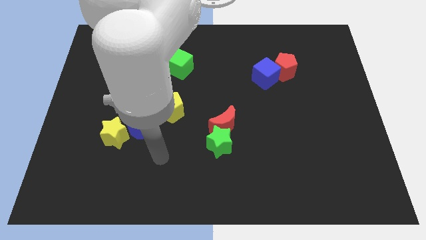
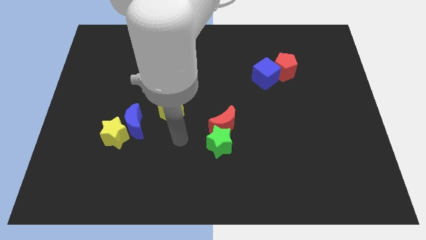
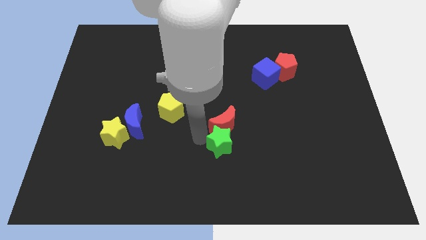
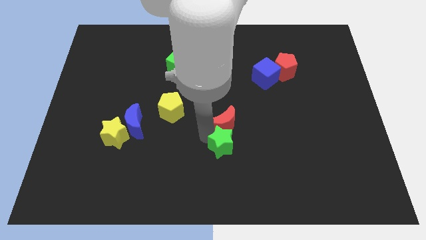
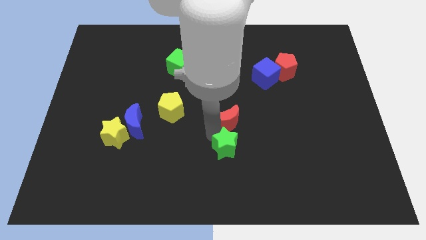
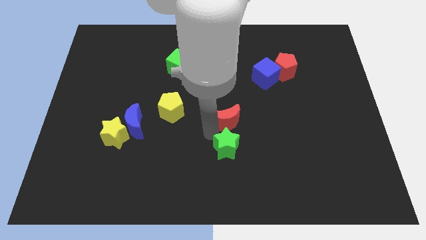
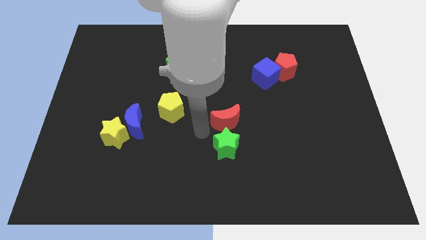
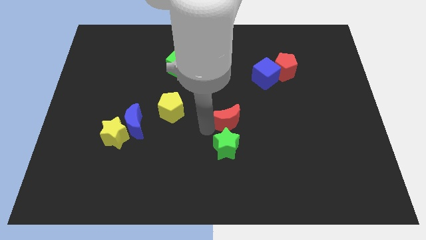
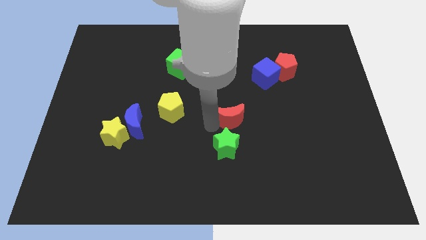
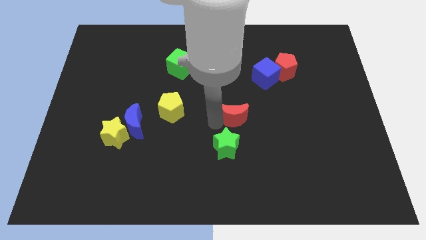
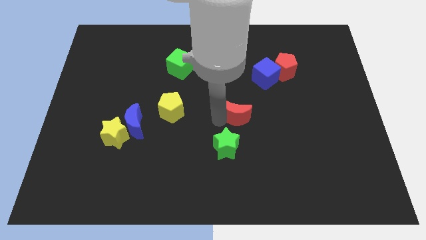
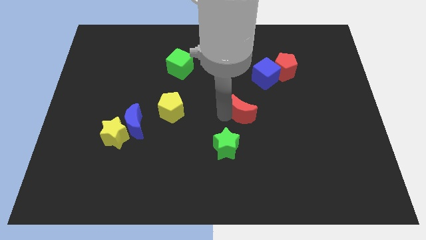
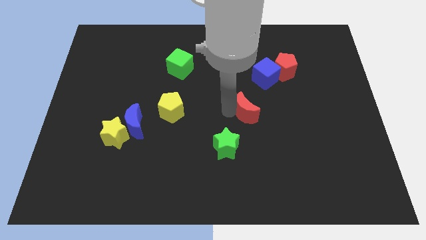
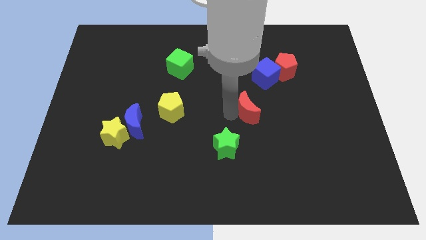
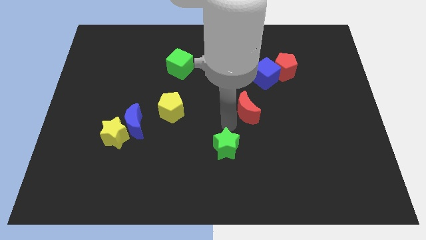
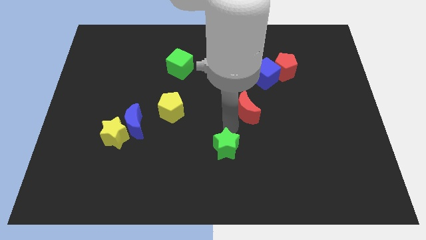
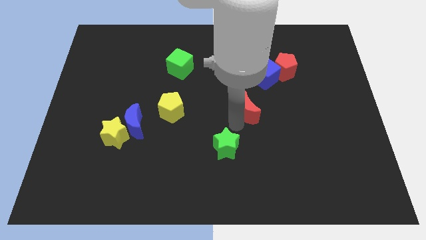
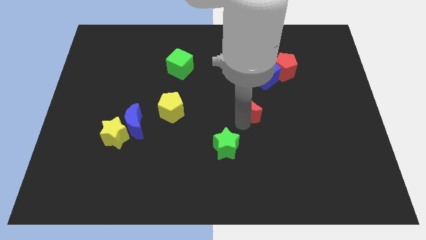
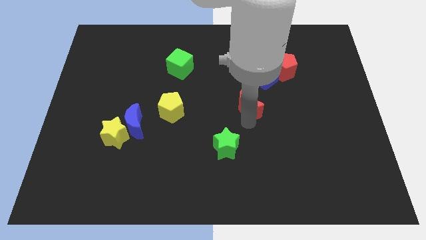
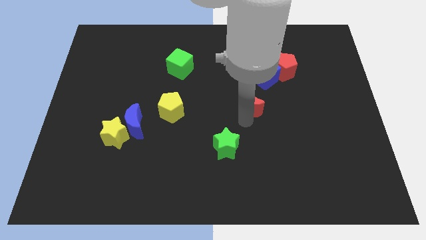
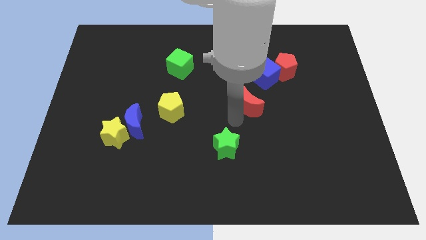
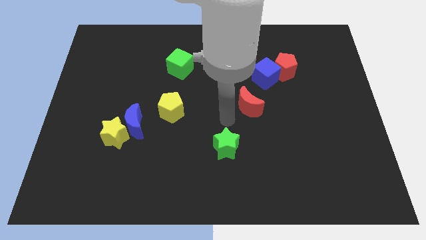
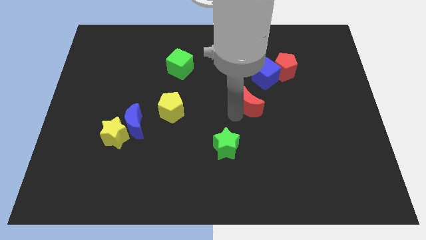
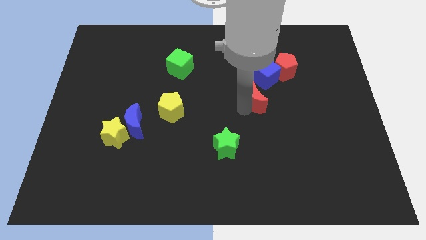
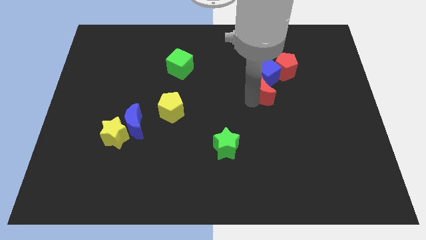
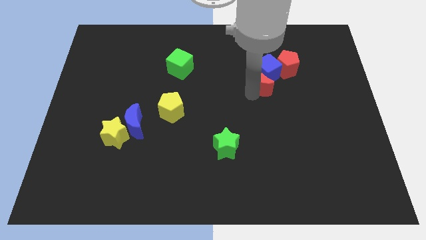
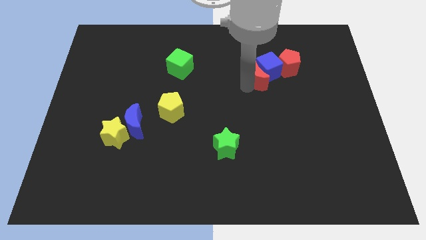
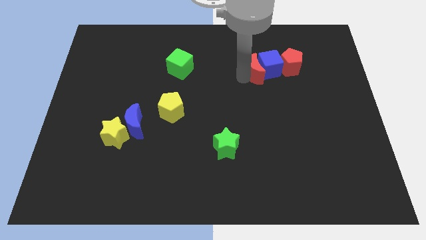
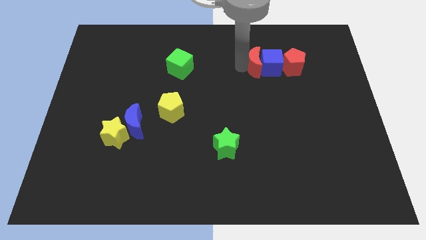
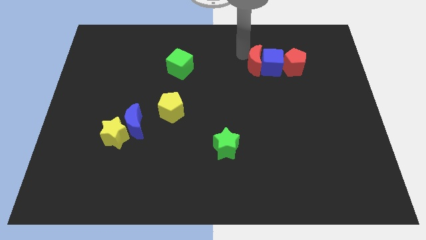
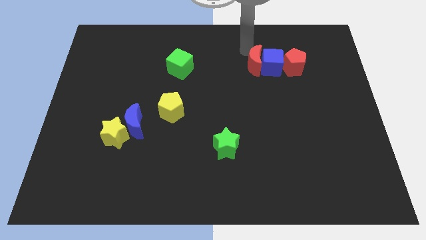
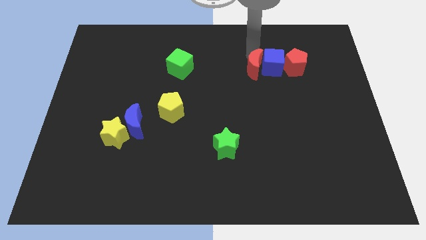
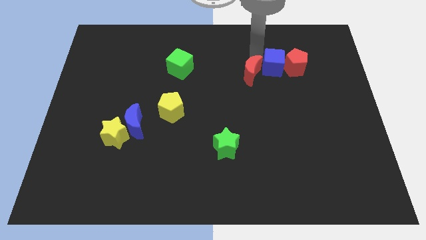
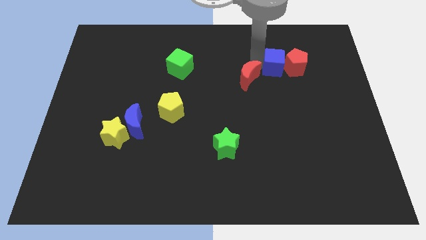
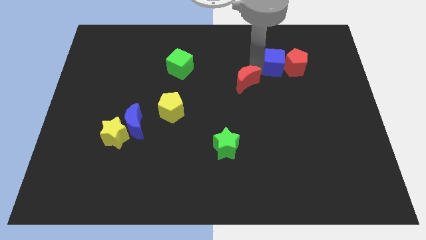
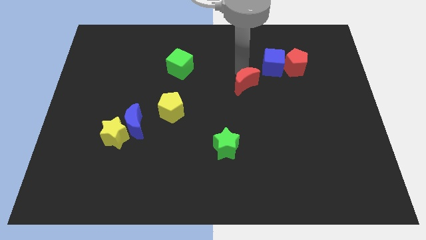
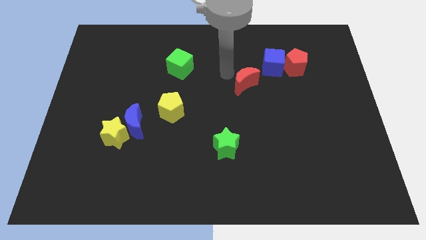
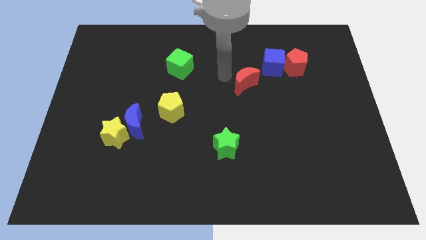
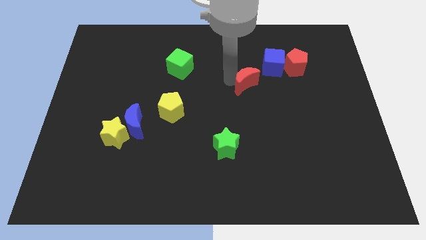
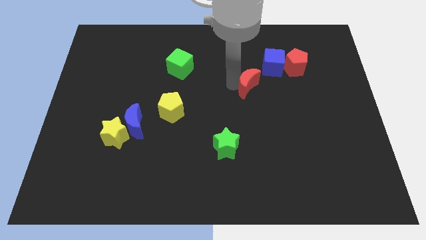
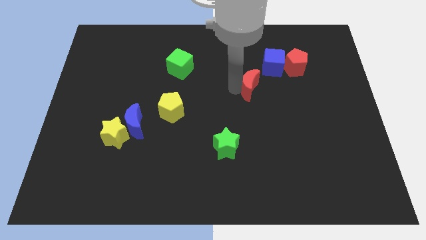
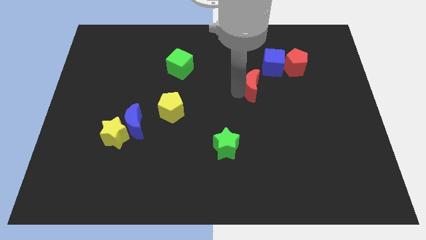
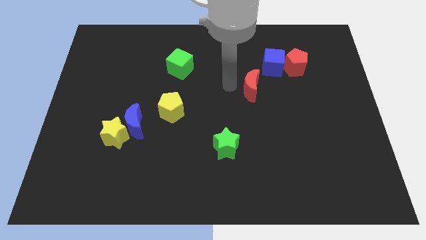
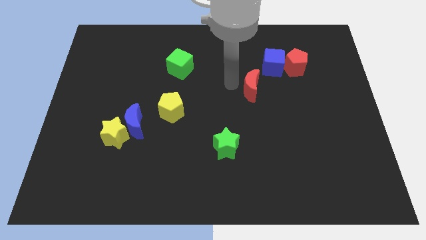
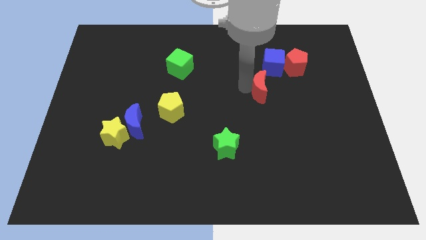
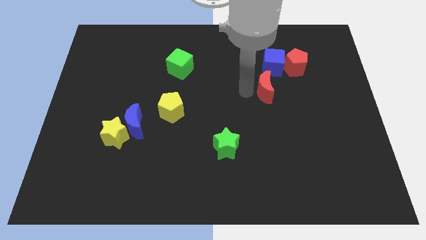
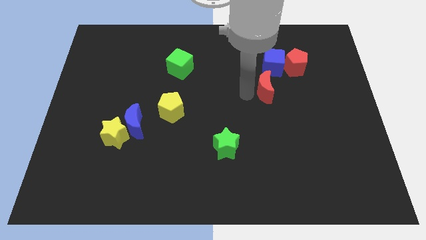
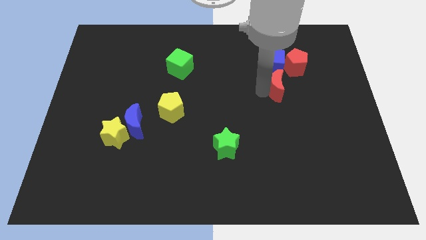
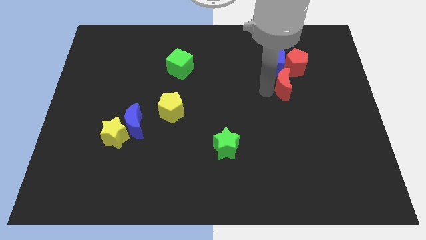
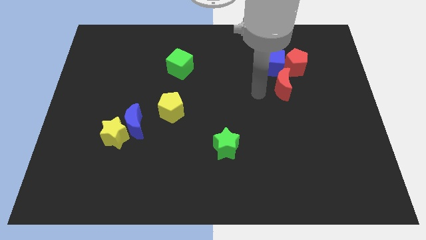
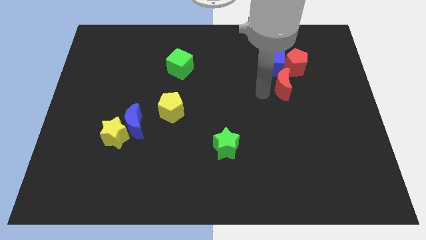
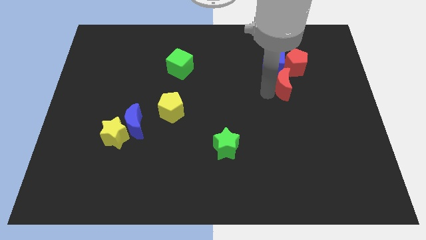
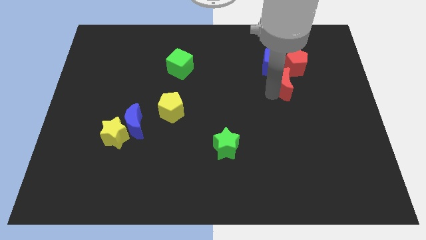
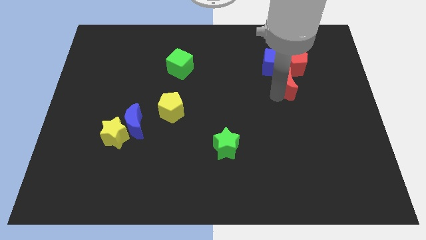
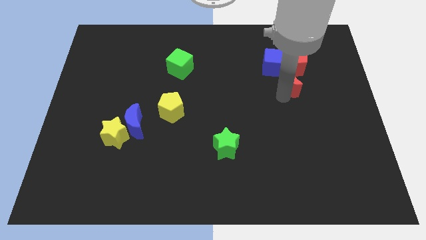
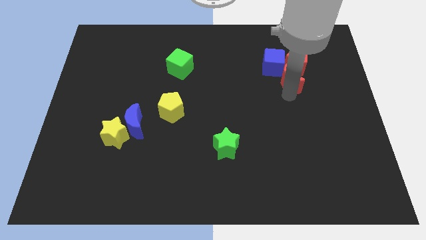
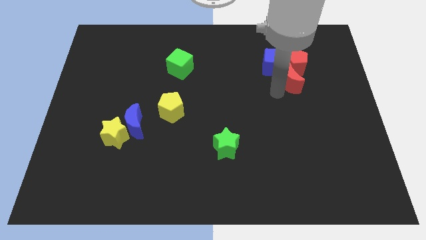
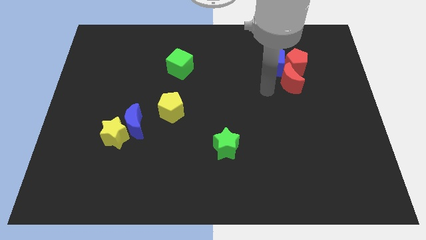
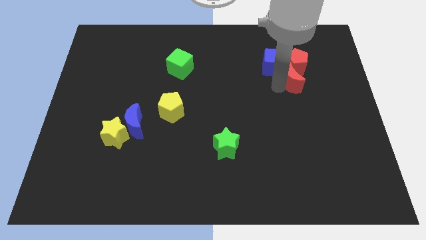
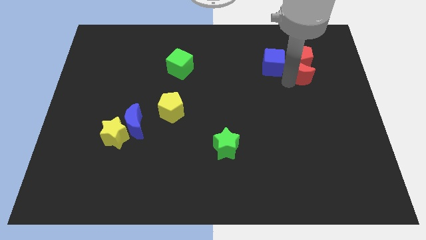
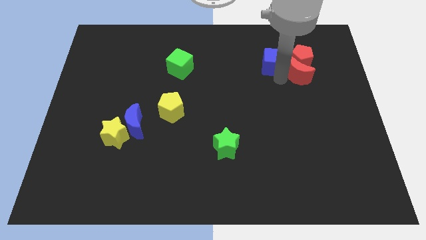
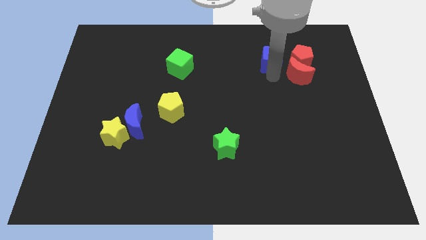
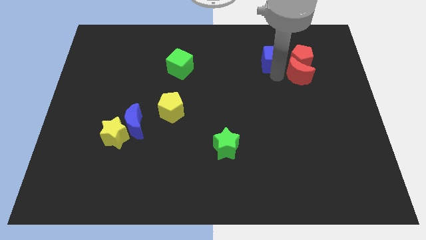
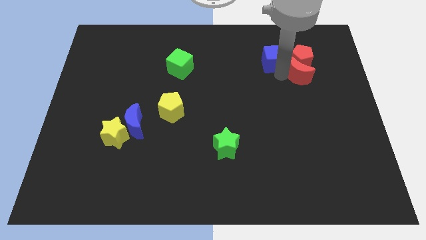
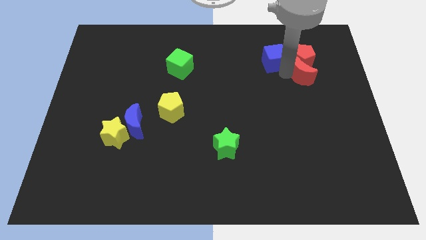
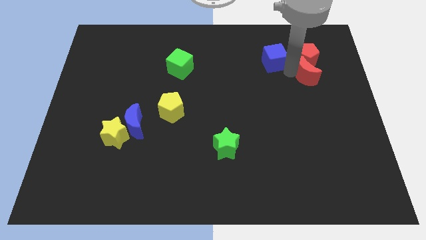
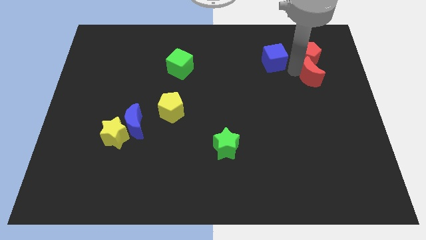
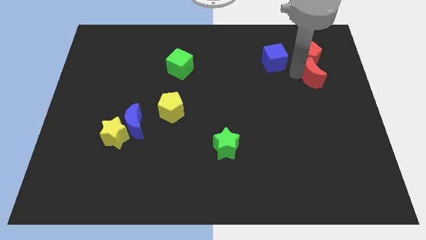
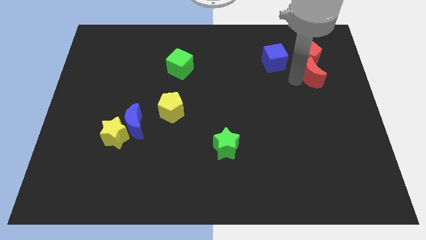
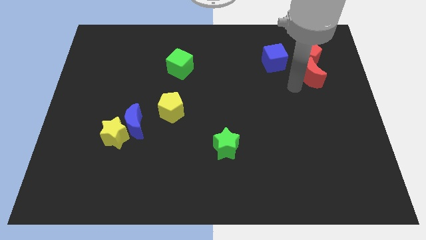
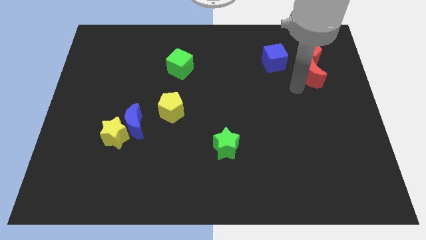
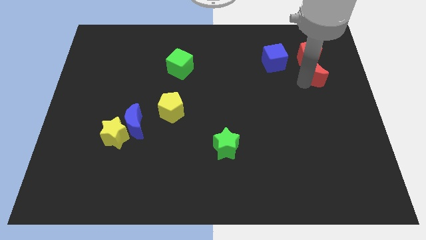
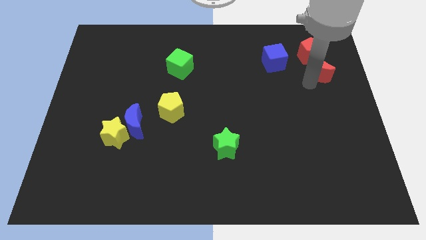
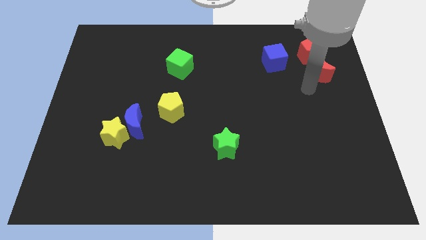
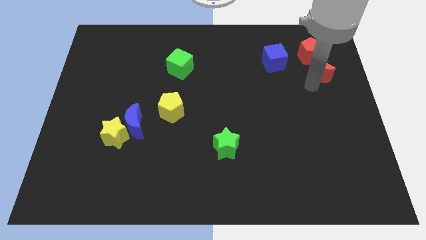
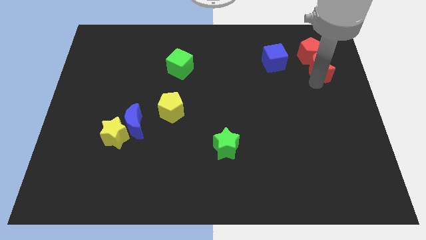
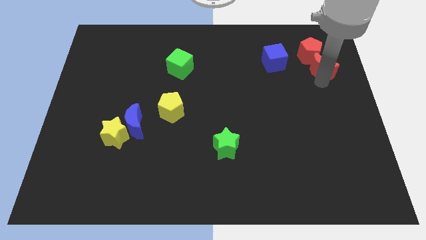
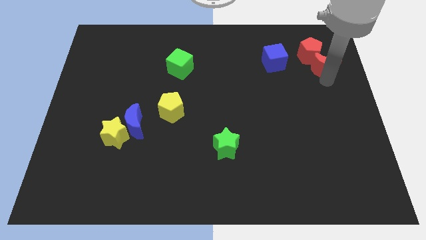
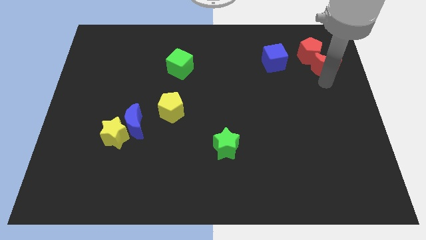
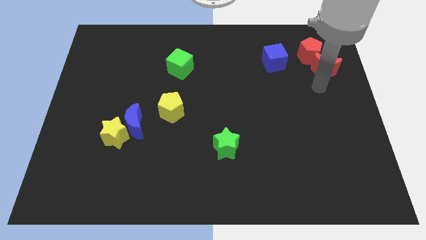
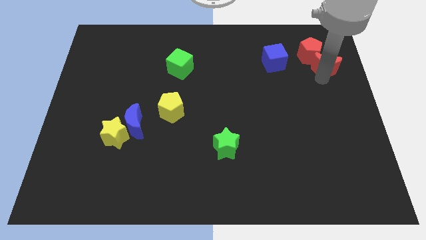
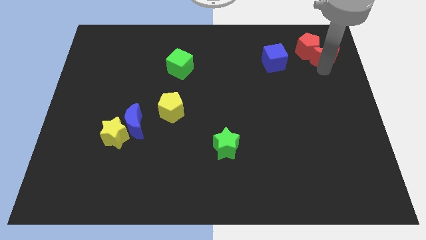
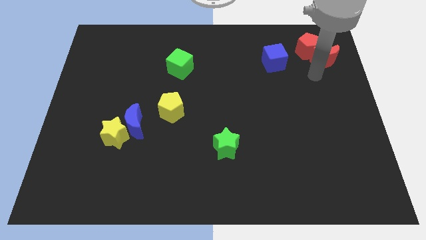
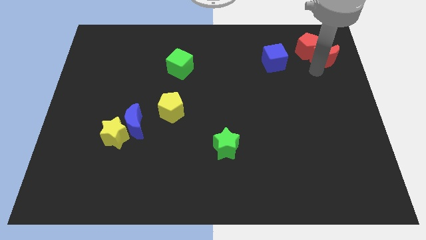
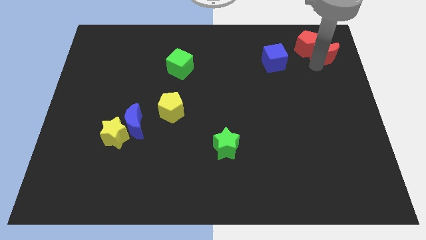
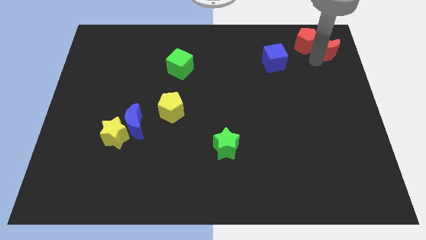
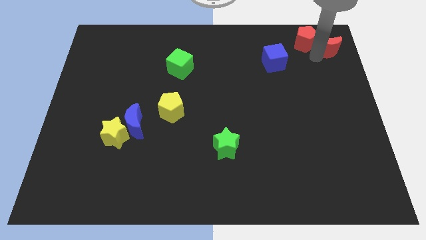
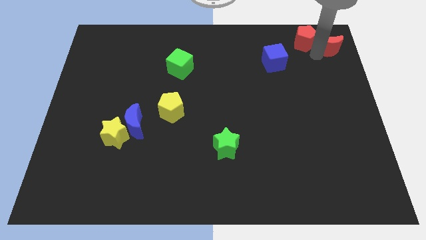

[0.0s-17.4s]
move the red moon to the upper right corner
